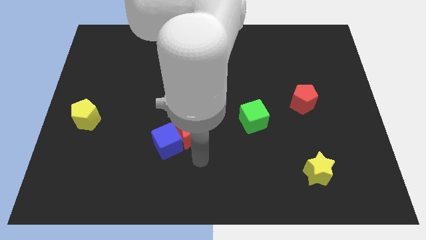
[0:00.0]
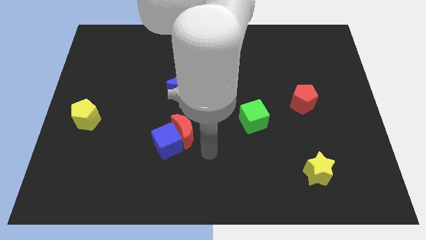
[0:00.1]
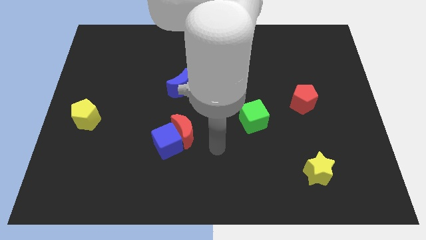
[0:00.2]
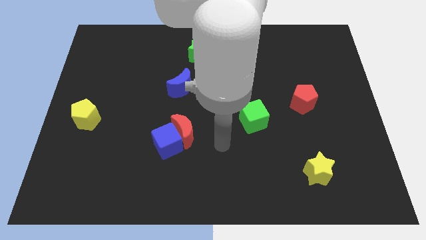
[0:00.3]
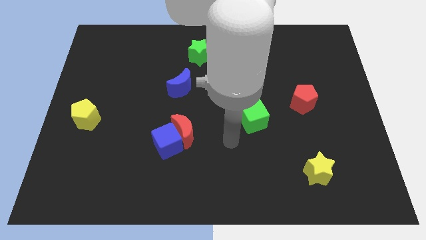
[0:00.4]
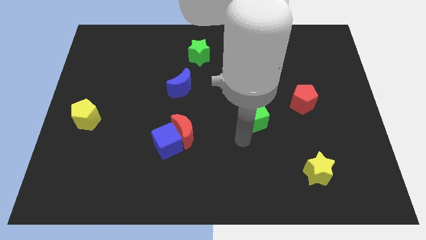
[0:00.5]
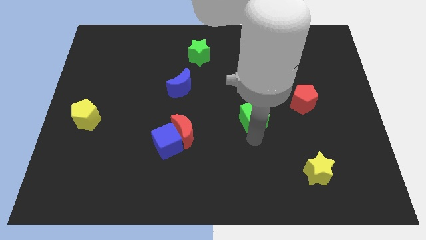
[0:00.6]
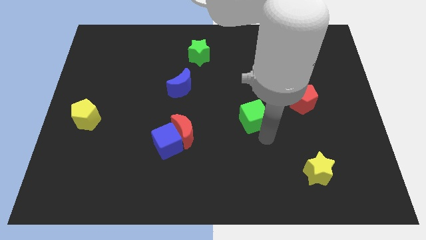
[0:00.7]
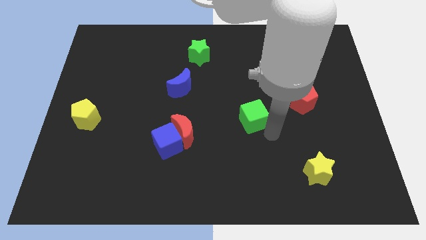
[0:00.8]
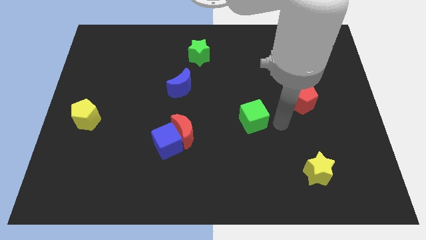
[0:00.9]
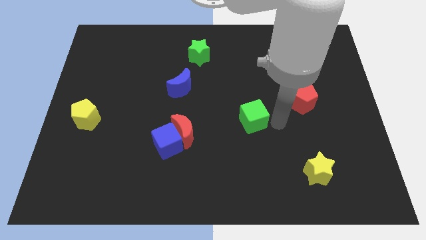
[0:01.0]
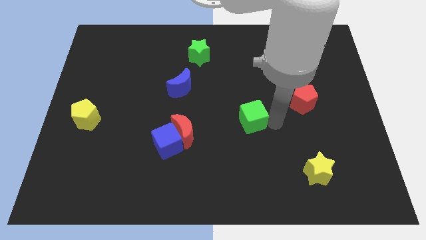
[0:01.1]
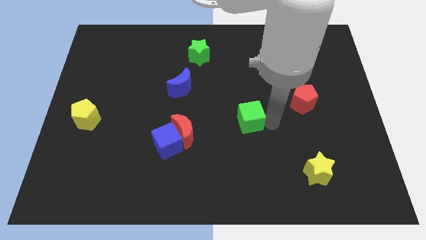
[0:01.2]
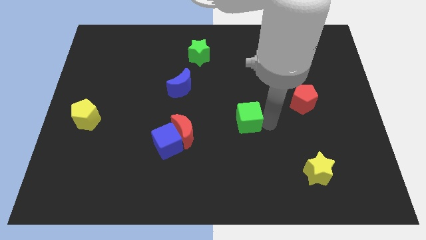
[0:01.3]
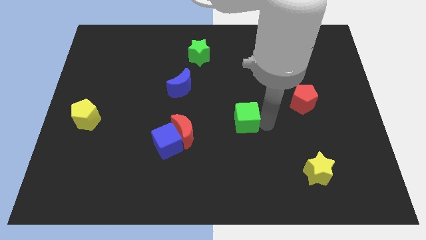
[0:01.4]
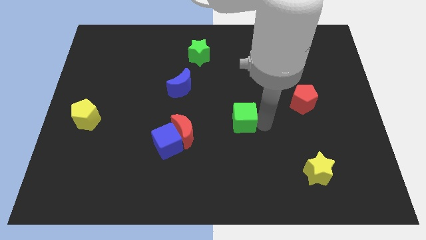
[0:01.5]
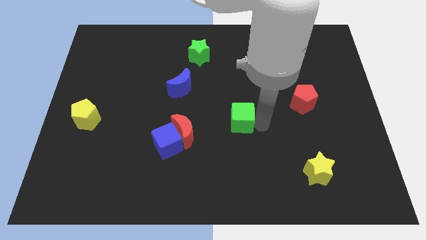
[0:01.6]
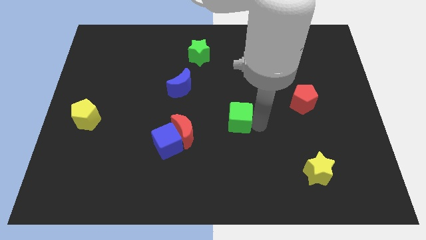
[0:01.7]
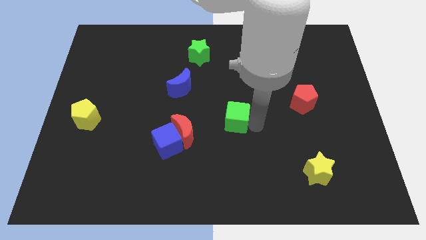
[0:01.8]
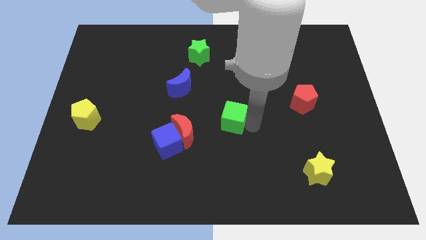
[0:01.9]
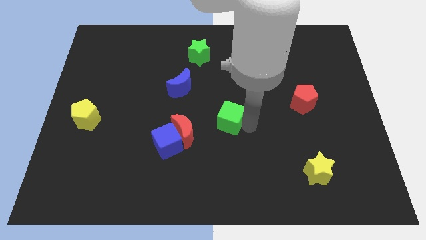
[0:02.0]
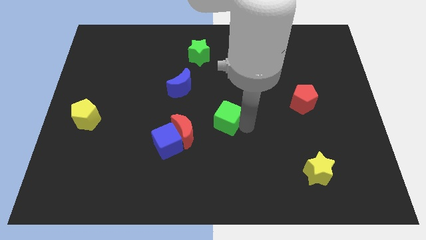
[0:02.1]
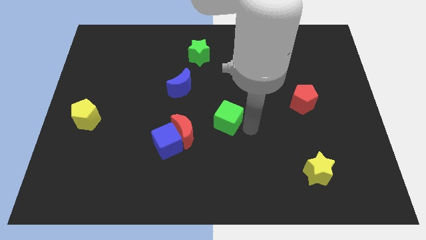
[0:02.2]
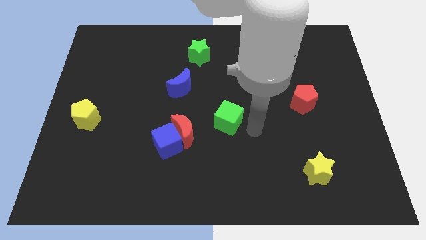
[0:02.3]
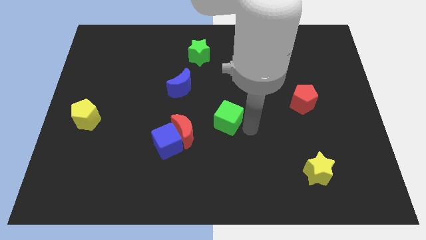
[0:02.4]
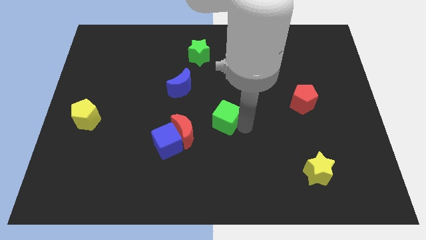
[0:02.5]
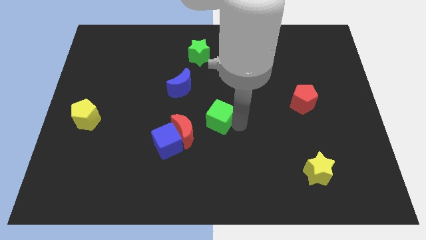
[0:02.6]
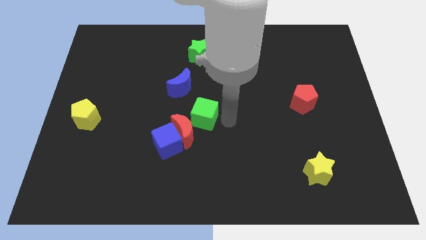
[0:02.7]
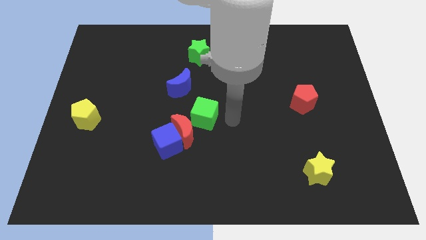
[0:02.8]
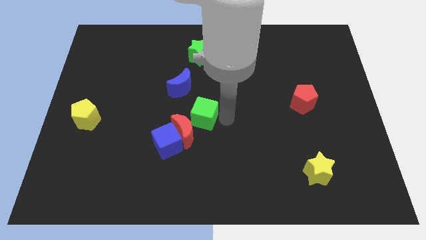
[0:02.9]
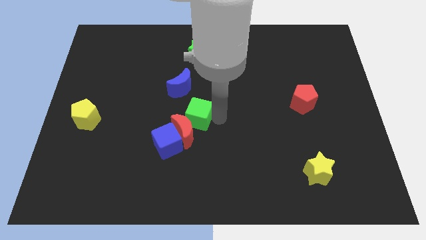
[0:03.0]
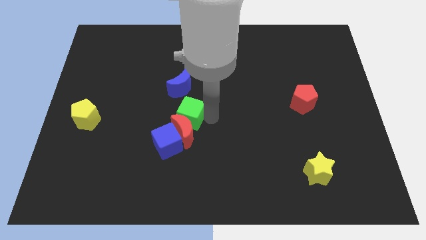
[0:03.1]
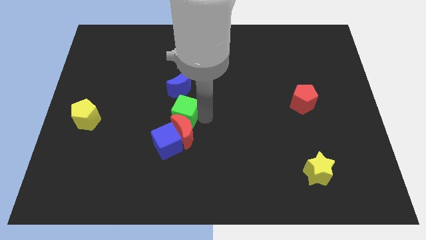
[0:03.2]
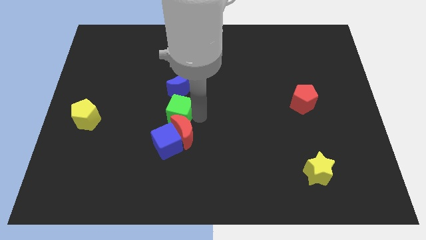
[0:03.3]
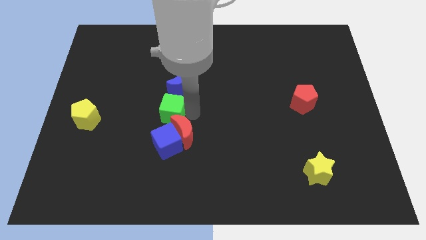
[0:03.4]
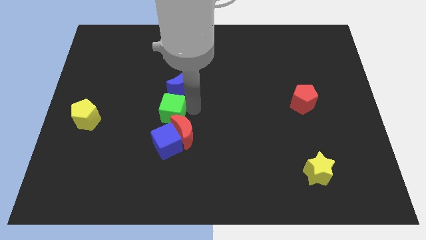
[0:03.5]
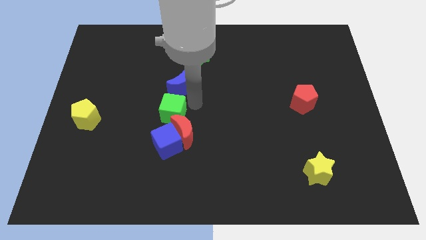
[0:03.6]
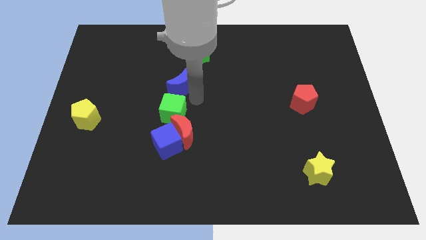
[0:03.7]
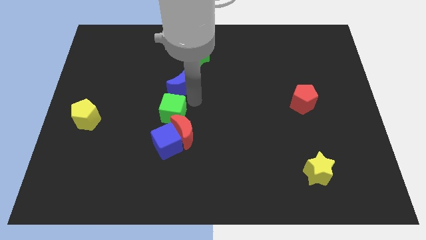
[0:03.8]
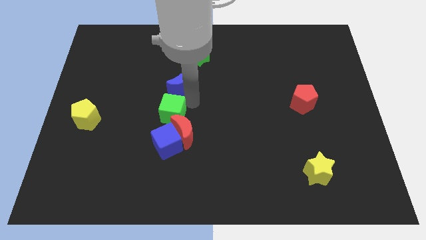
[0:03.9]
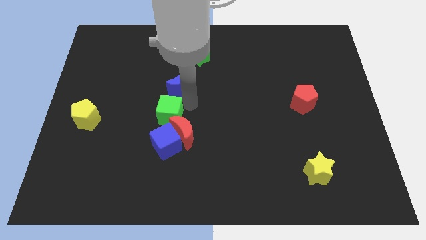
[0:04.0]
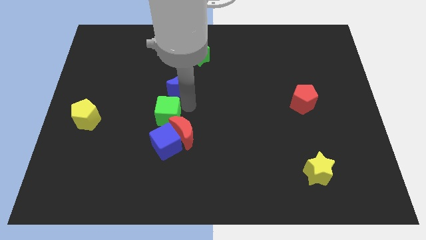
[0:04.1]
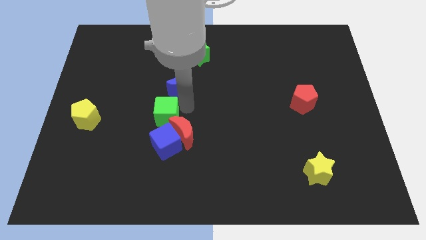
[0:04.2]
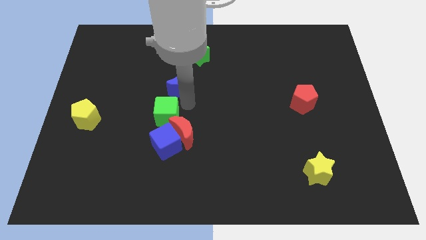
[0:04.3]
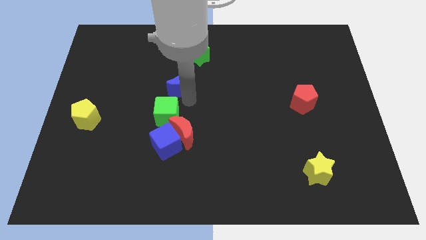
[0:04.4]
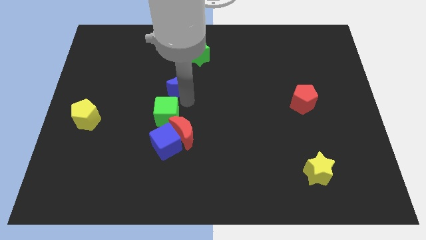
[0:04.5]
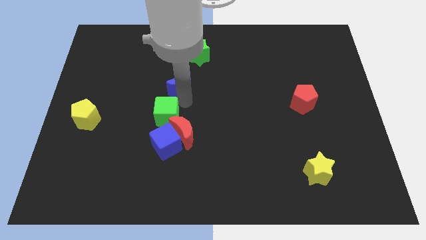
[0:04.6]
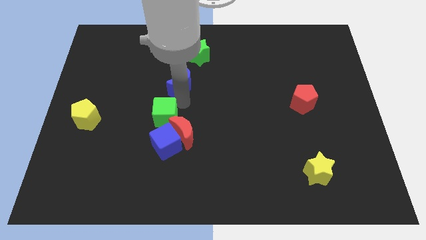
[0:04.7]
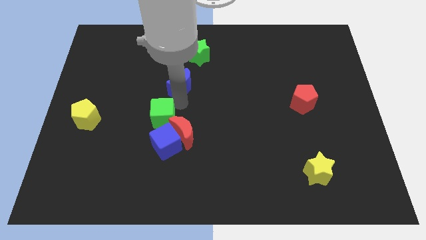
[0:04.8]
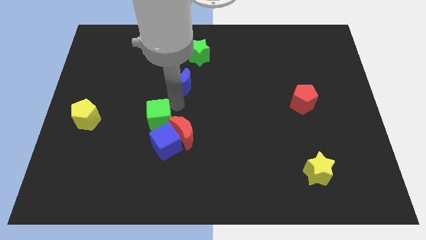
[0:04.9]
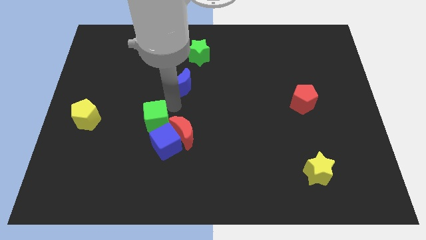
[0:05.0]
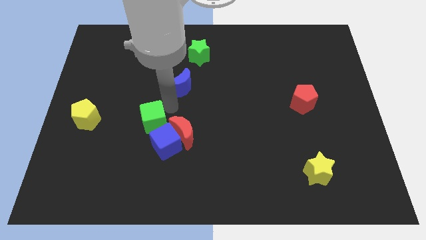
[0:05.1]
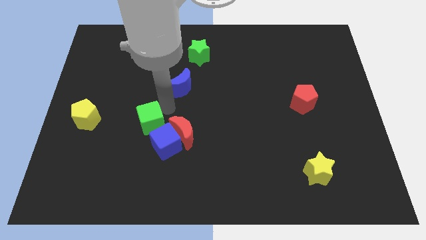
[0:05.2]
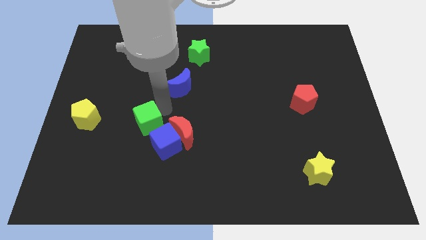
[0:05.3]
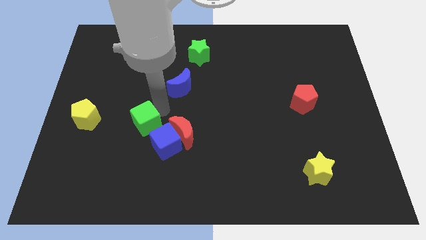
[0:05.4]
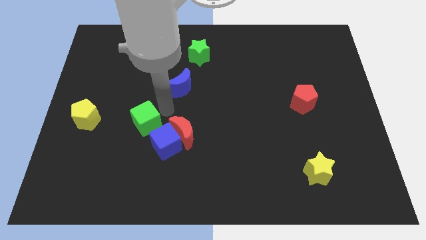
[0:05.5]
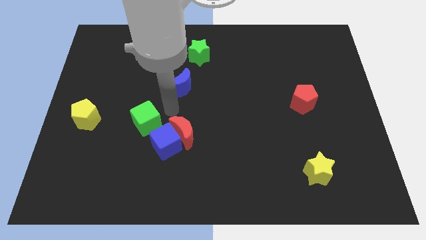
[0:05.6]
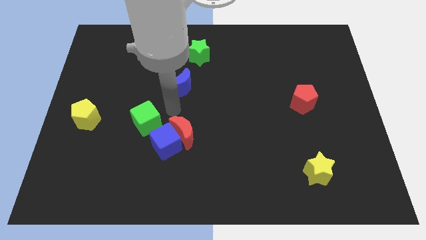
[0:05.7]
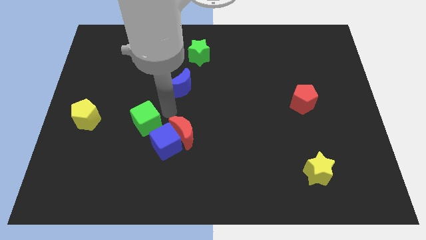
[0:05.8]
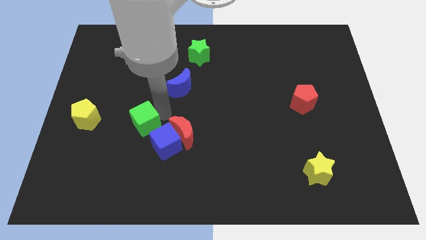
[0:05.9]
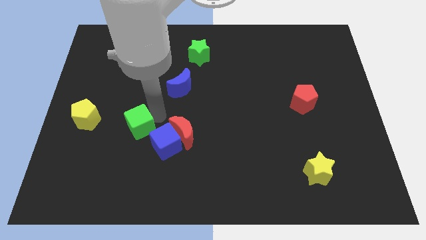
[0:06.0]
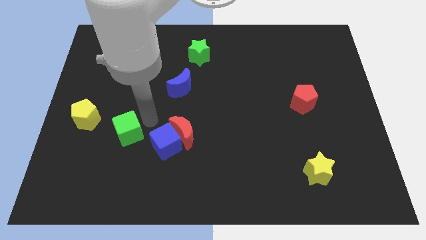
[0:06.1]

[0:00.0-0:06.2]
slide the green cube to the bottom right of the yellow pentagon

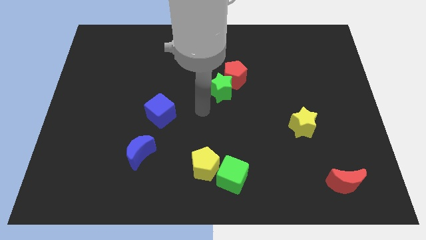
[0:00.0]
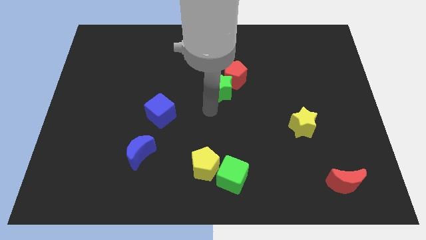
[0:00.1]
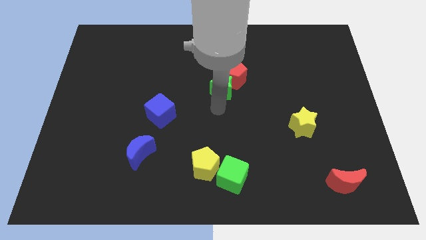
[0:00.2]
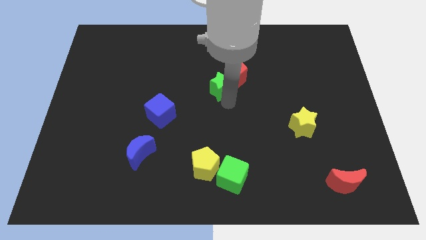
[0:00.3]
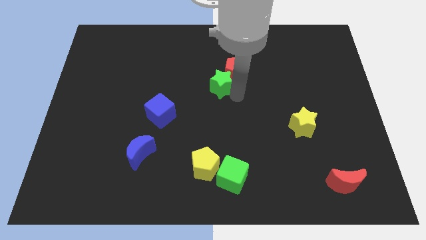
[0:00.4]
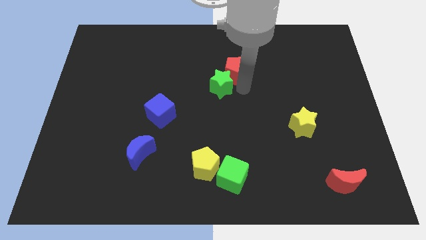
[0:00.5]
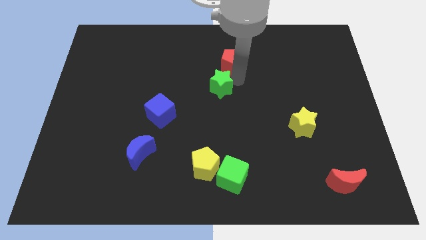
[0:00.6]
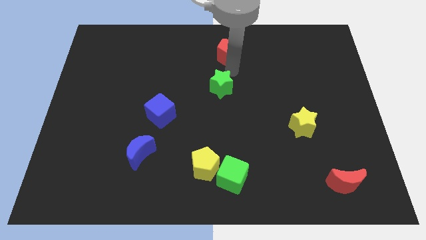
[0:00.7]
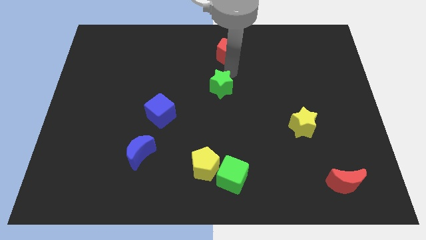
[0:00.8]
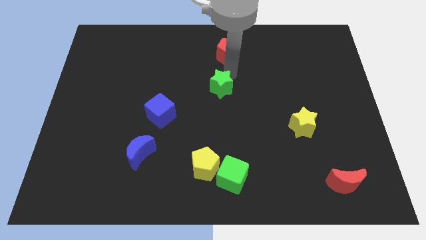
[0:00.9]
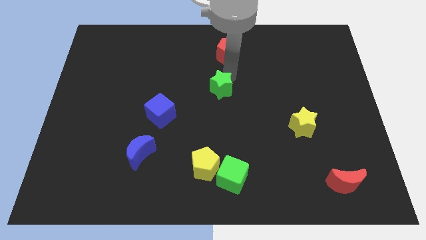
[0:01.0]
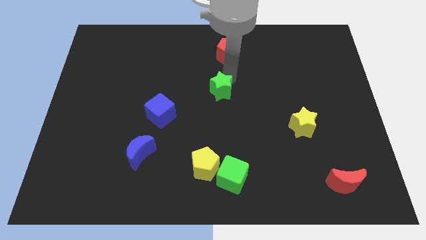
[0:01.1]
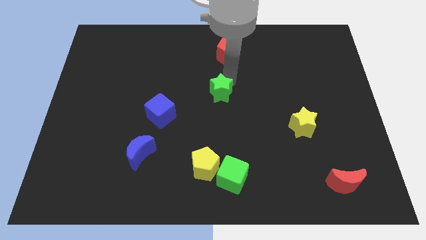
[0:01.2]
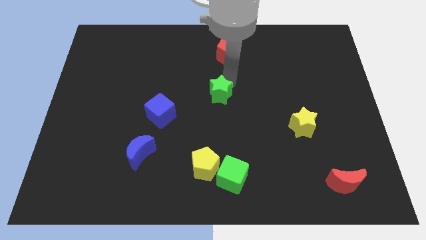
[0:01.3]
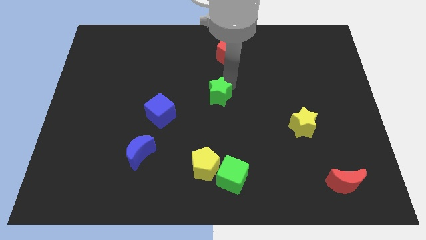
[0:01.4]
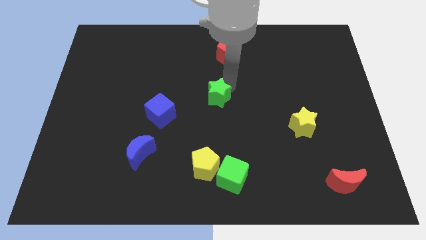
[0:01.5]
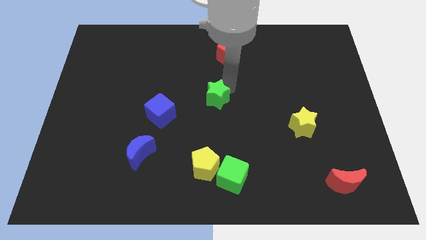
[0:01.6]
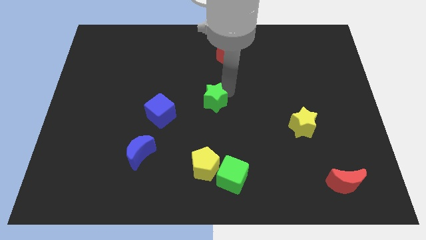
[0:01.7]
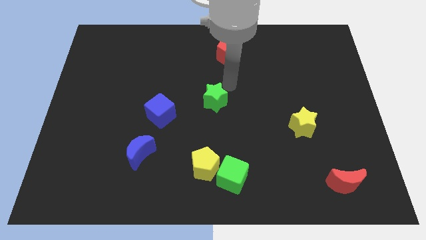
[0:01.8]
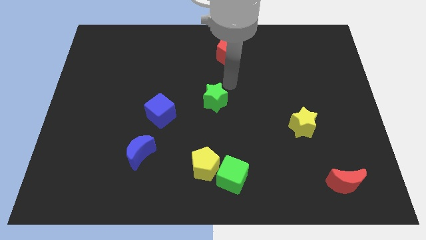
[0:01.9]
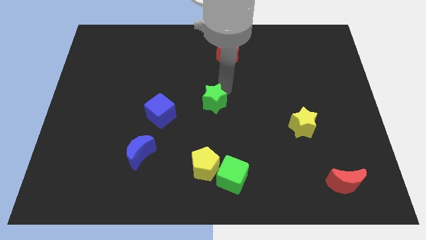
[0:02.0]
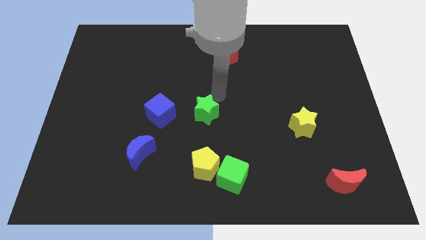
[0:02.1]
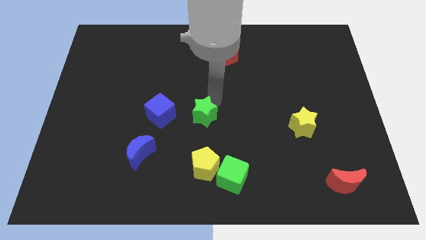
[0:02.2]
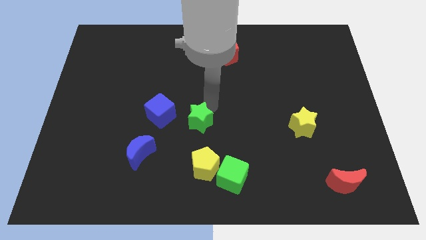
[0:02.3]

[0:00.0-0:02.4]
put the green star diagonally down and to the right of the blue cube
